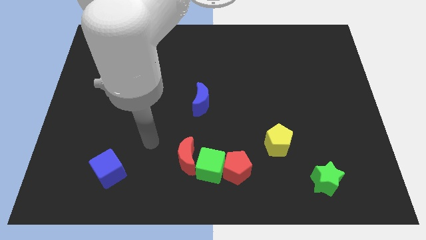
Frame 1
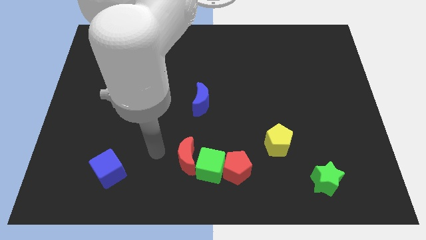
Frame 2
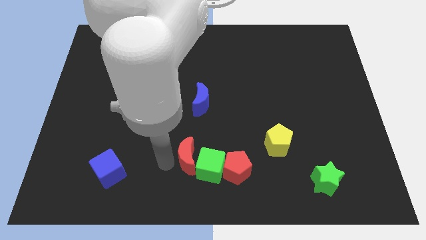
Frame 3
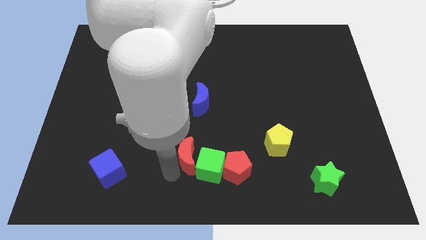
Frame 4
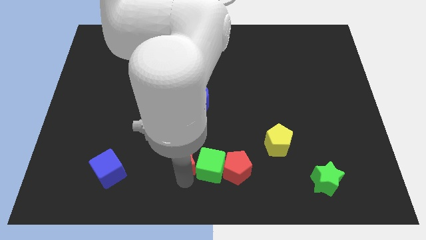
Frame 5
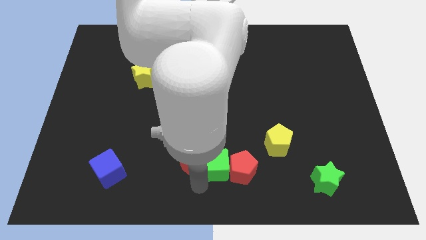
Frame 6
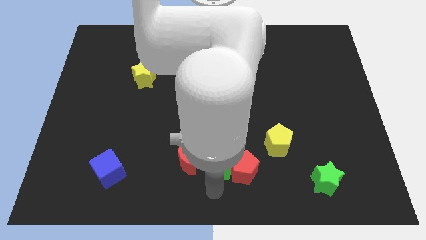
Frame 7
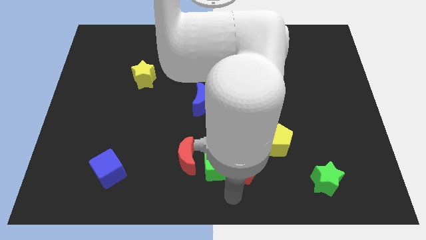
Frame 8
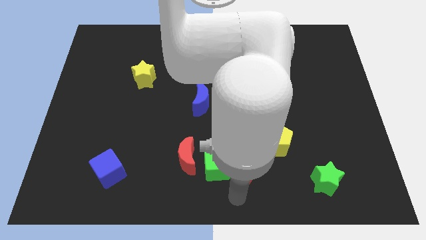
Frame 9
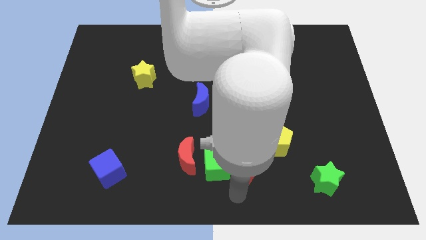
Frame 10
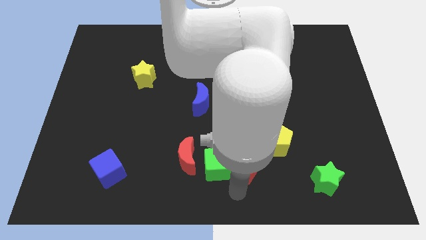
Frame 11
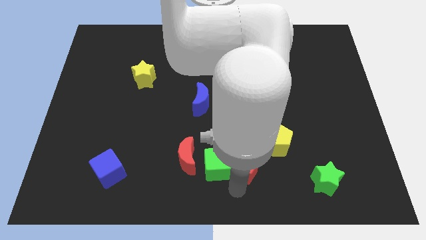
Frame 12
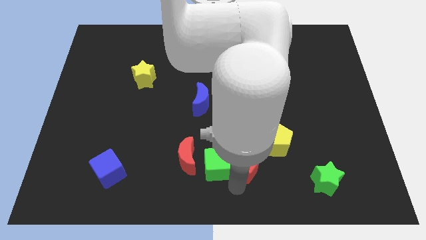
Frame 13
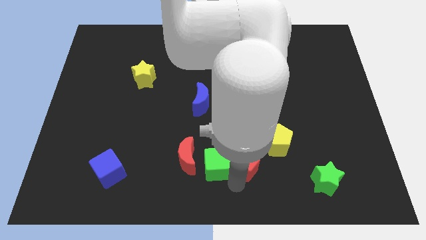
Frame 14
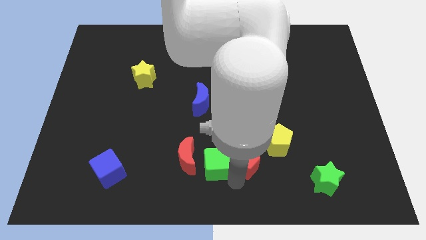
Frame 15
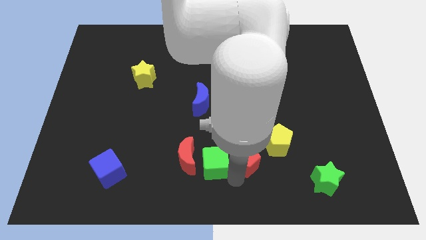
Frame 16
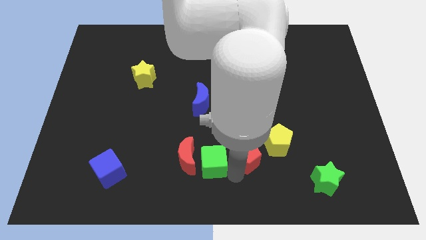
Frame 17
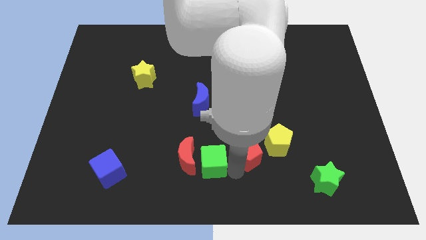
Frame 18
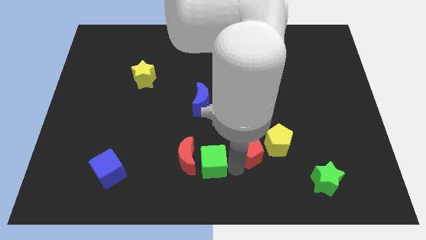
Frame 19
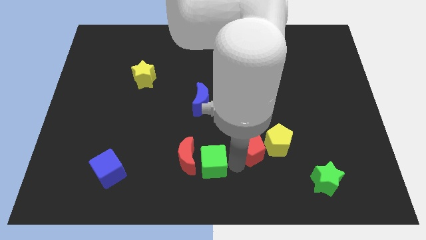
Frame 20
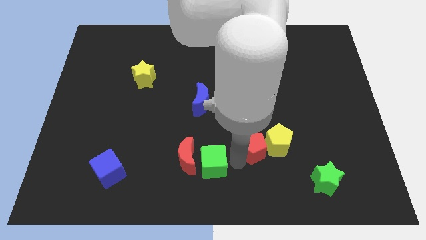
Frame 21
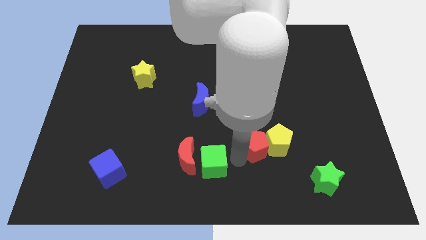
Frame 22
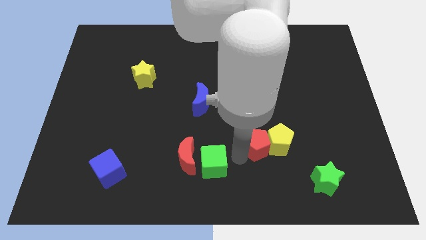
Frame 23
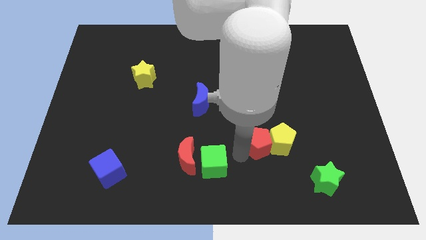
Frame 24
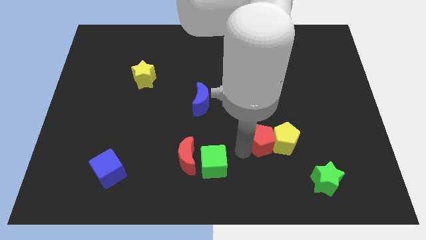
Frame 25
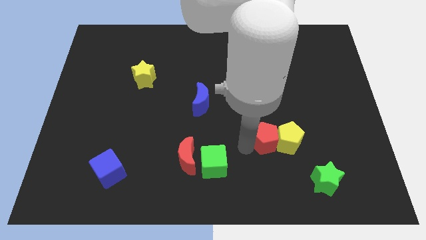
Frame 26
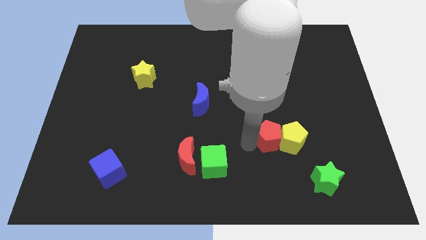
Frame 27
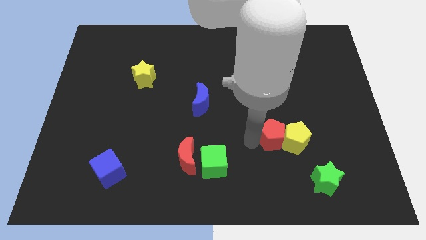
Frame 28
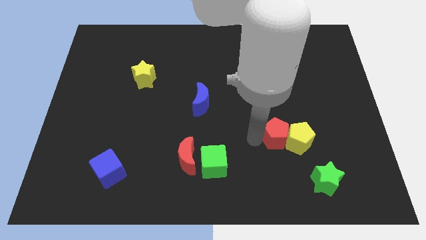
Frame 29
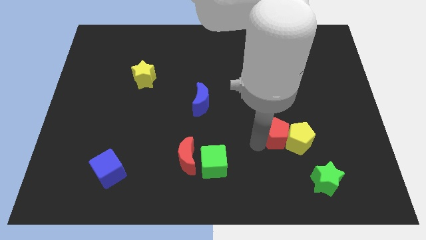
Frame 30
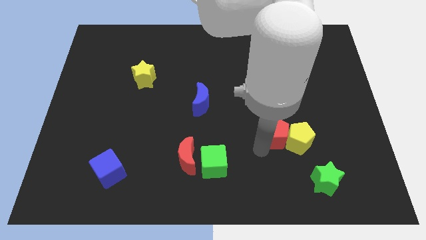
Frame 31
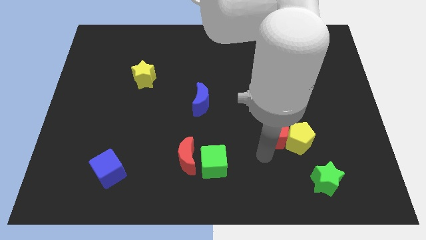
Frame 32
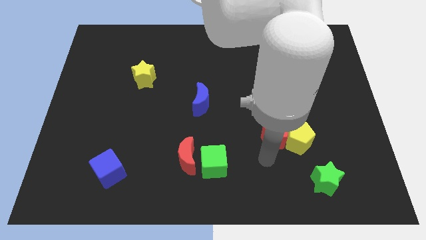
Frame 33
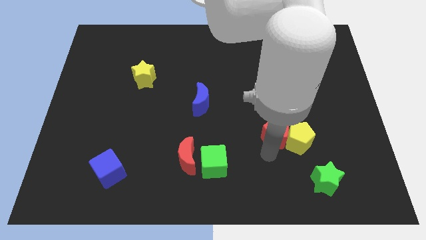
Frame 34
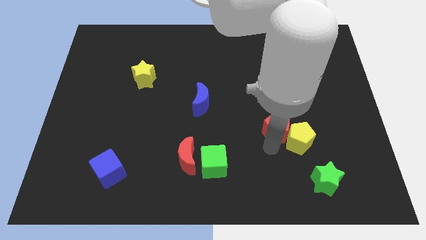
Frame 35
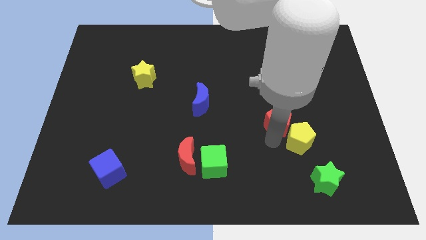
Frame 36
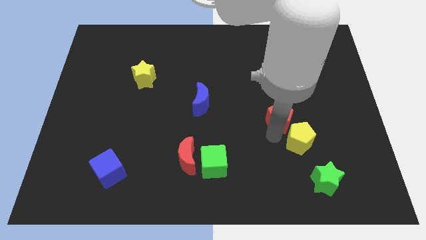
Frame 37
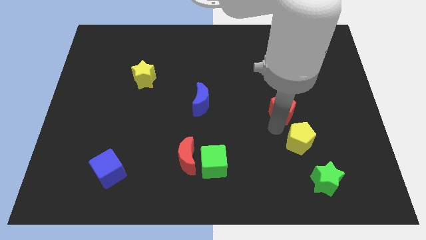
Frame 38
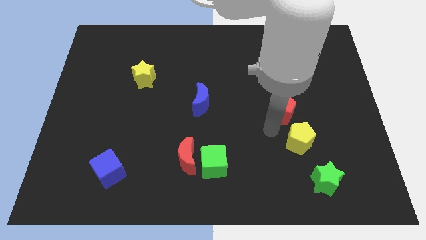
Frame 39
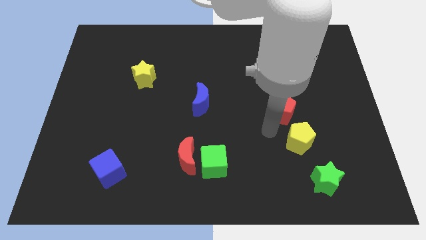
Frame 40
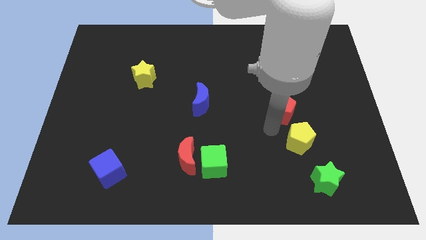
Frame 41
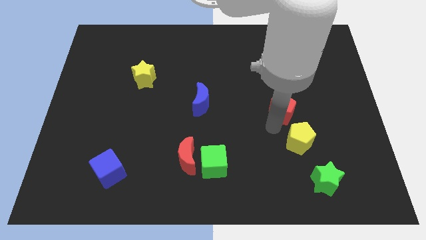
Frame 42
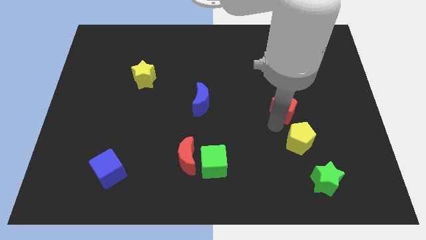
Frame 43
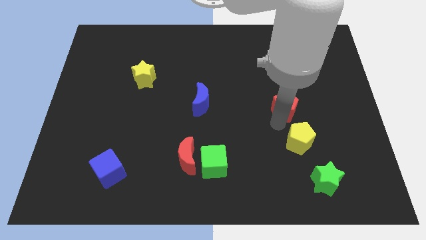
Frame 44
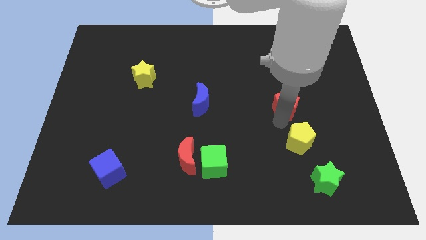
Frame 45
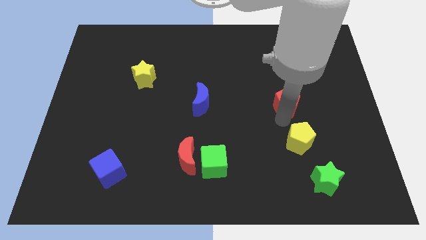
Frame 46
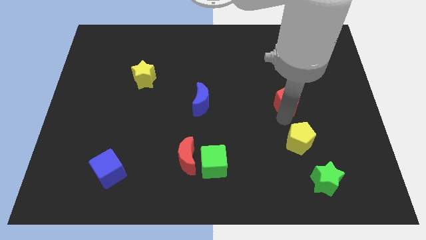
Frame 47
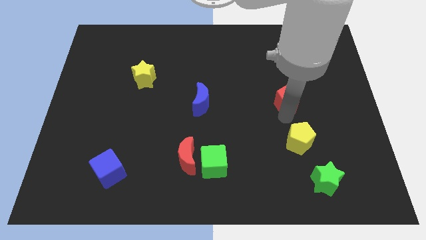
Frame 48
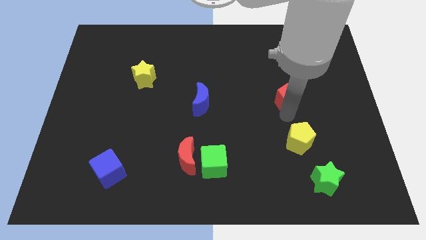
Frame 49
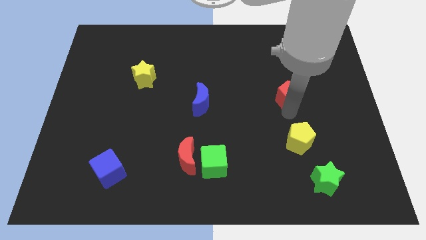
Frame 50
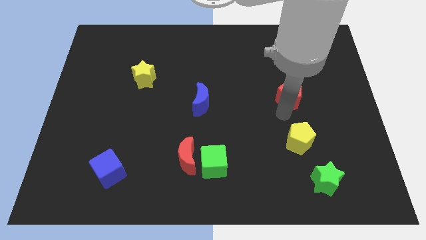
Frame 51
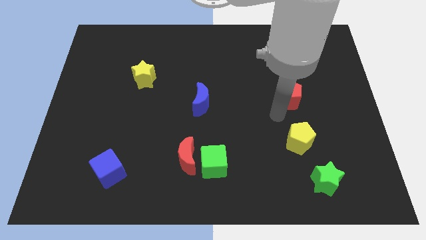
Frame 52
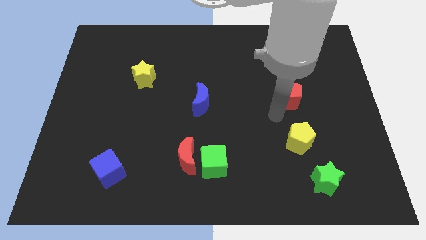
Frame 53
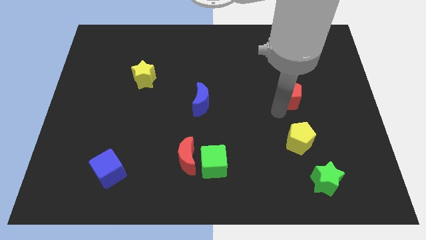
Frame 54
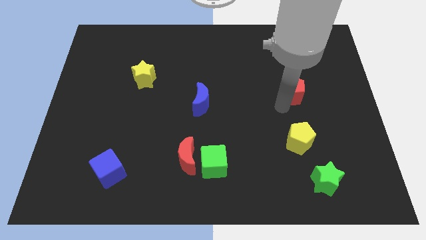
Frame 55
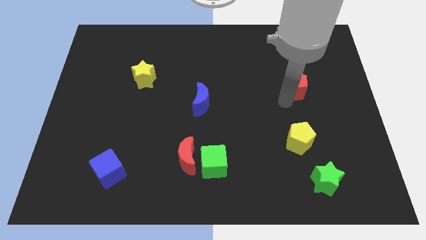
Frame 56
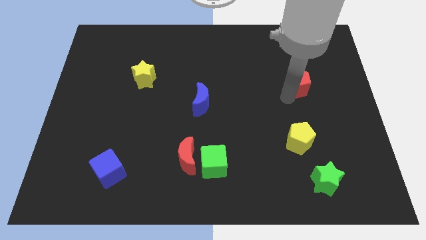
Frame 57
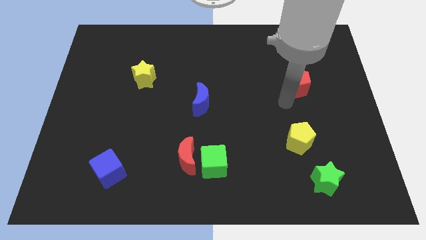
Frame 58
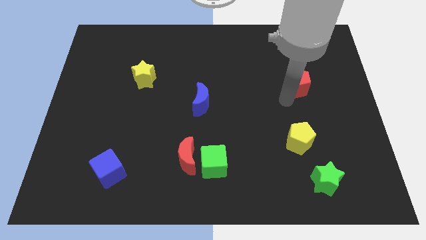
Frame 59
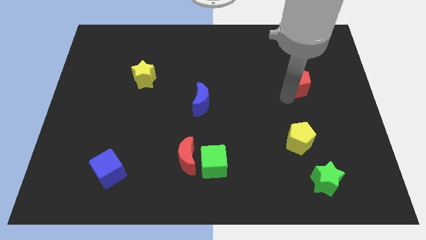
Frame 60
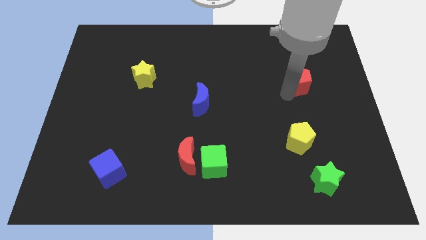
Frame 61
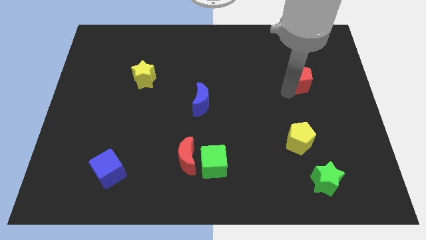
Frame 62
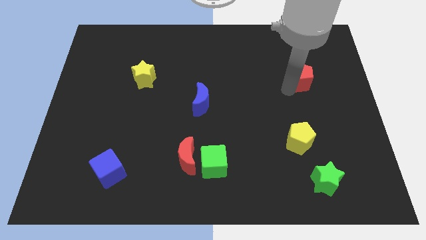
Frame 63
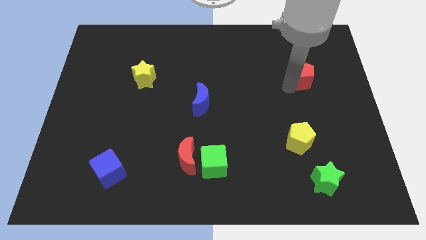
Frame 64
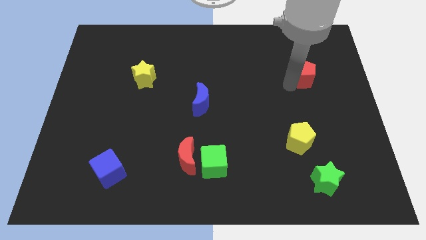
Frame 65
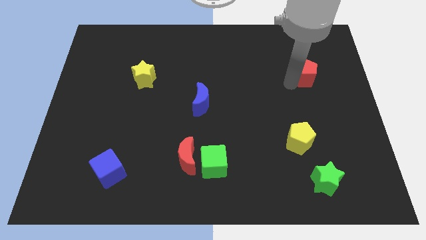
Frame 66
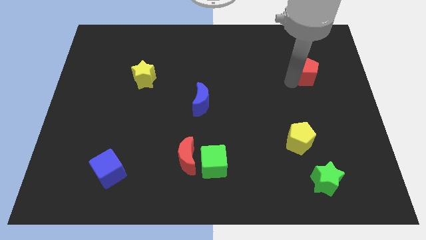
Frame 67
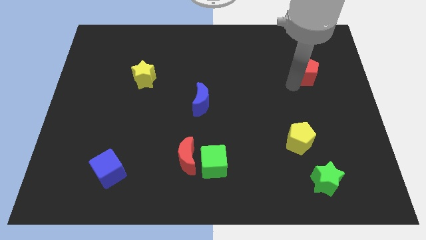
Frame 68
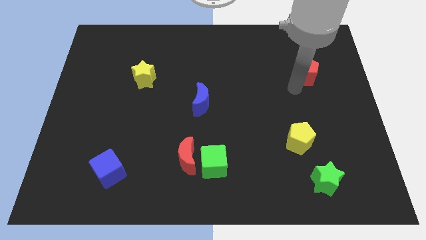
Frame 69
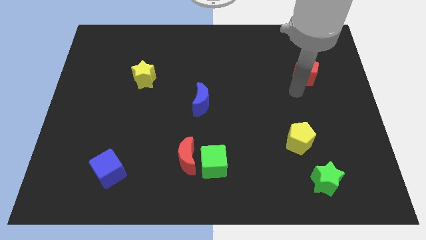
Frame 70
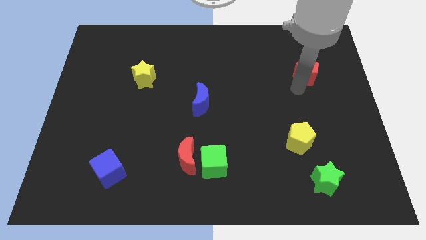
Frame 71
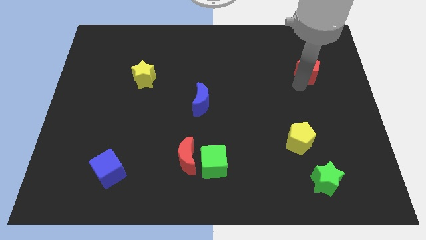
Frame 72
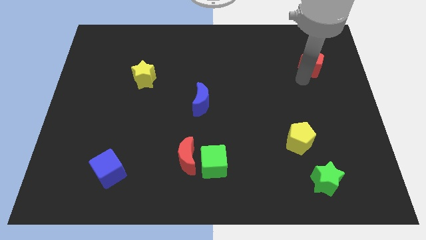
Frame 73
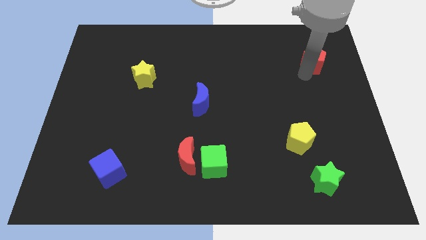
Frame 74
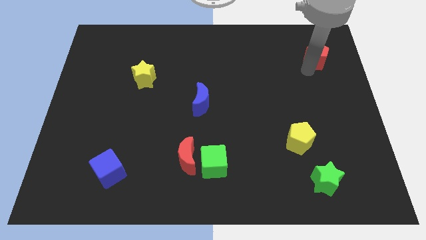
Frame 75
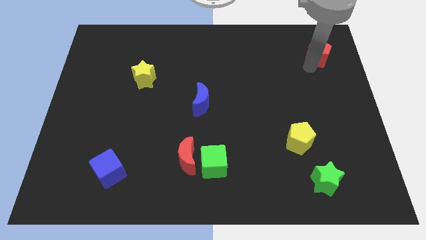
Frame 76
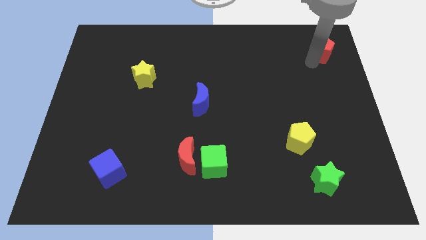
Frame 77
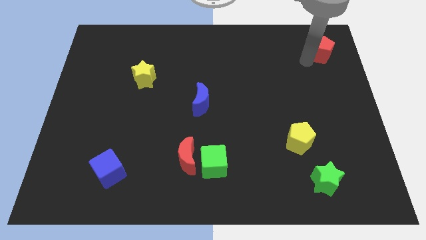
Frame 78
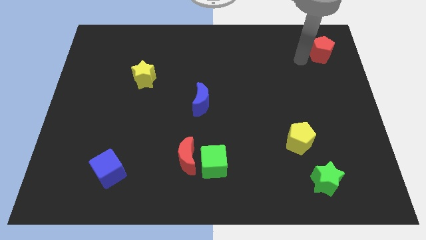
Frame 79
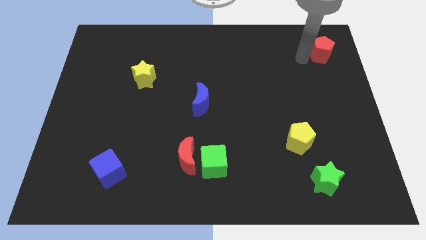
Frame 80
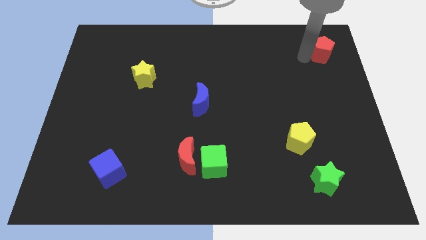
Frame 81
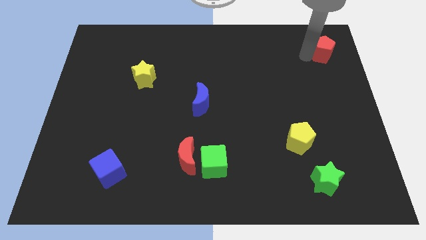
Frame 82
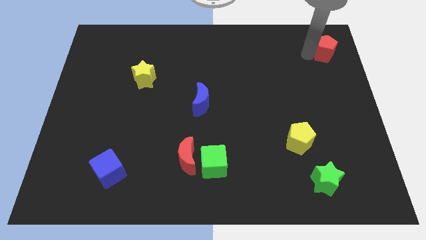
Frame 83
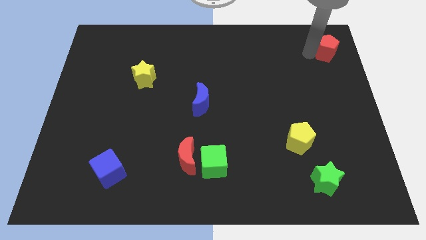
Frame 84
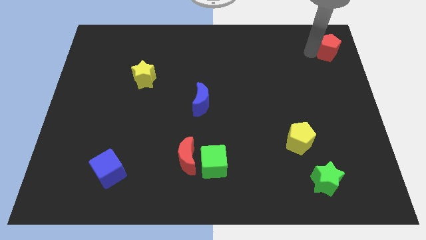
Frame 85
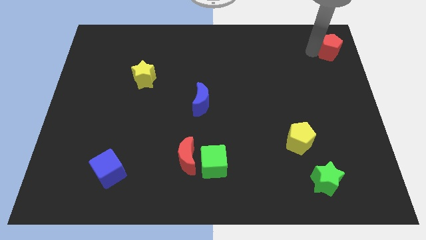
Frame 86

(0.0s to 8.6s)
move the red pentagon to the top right
